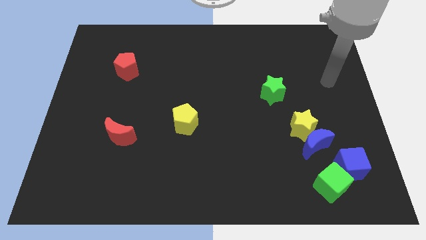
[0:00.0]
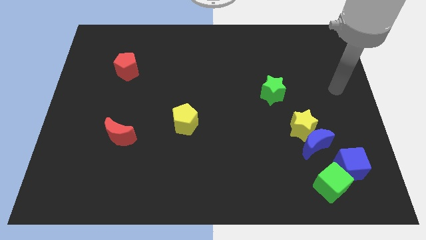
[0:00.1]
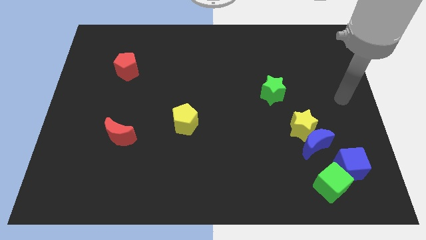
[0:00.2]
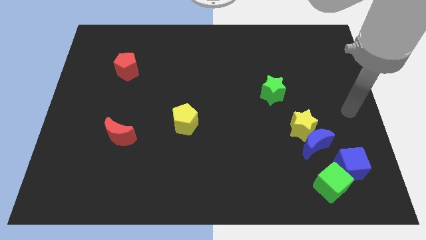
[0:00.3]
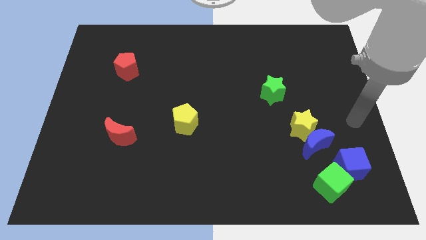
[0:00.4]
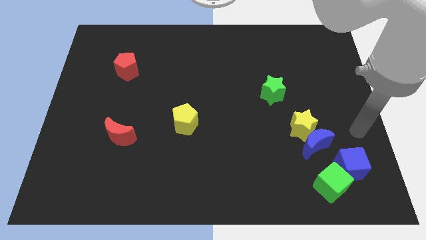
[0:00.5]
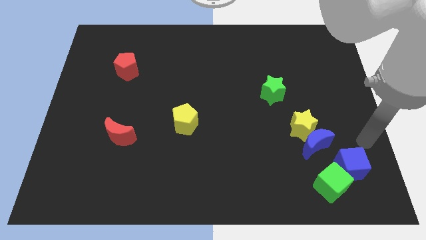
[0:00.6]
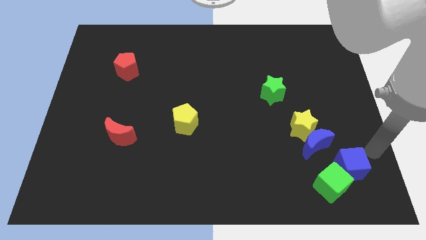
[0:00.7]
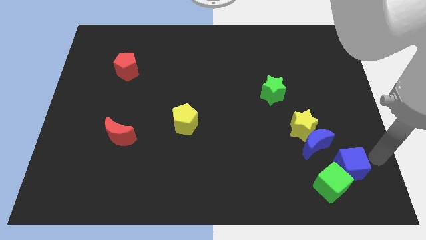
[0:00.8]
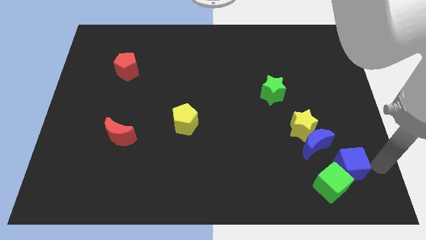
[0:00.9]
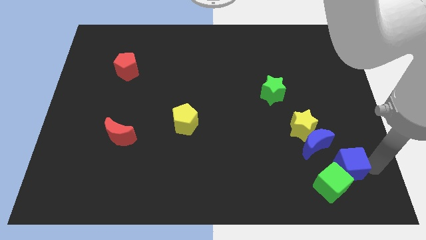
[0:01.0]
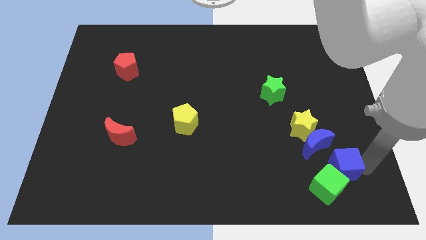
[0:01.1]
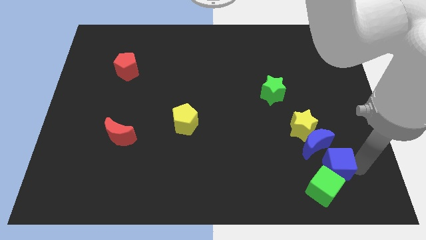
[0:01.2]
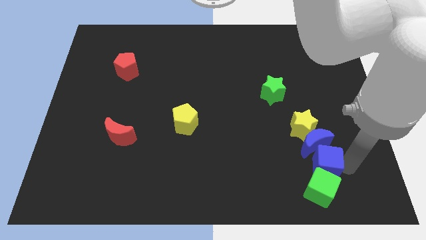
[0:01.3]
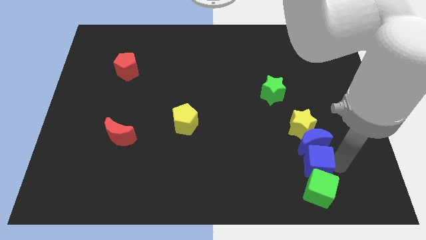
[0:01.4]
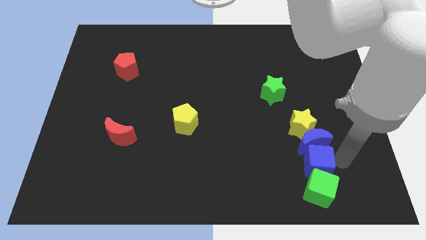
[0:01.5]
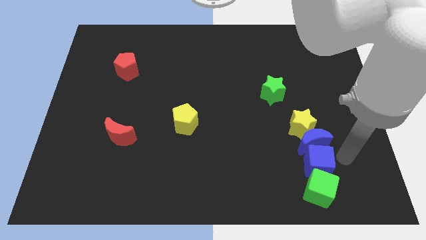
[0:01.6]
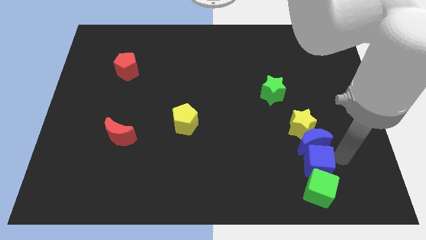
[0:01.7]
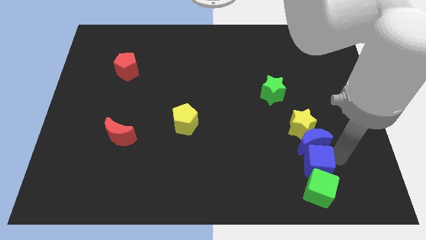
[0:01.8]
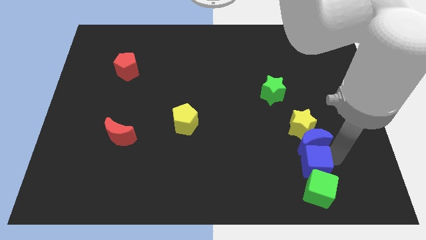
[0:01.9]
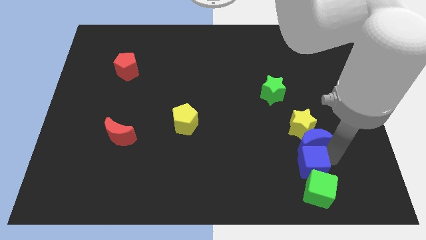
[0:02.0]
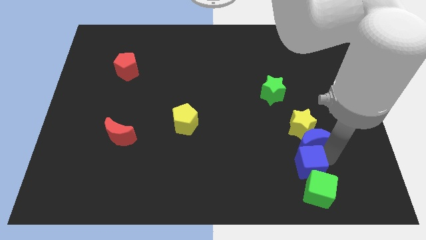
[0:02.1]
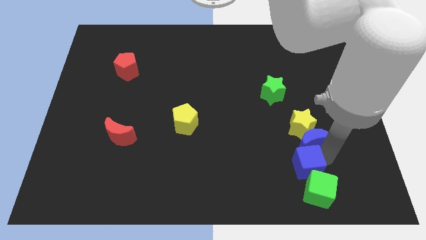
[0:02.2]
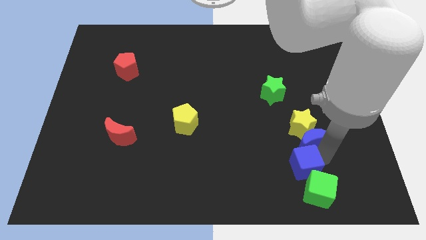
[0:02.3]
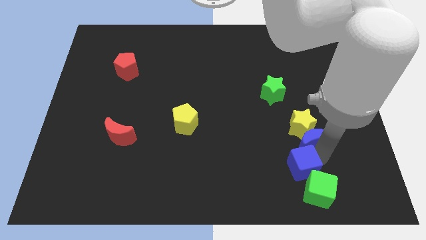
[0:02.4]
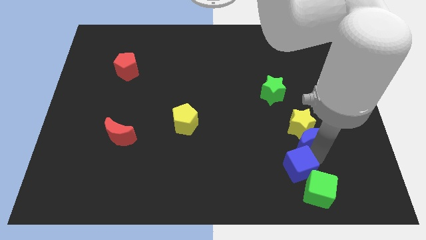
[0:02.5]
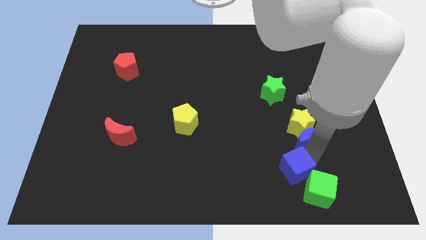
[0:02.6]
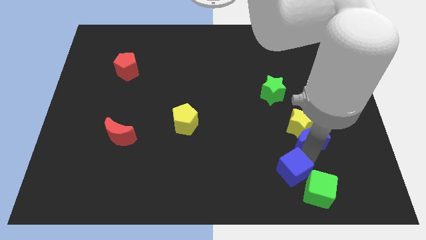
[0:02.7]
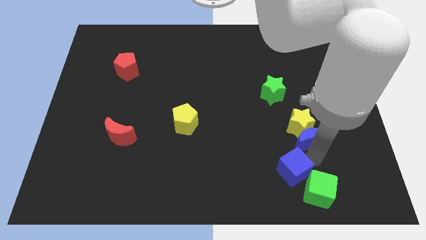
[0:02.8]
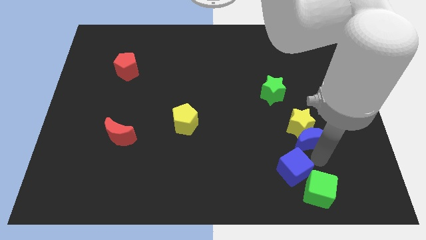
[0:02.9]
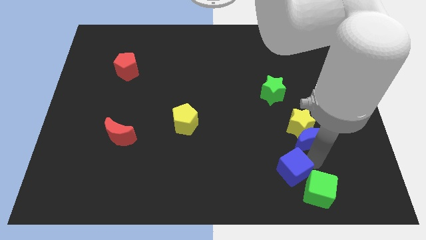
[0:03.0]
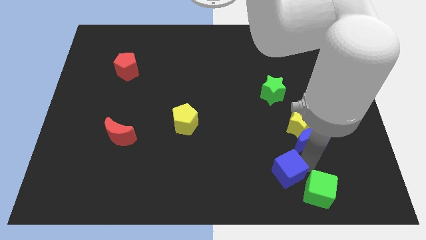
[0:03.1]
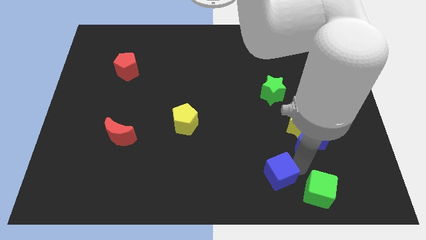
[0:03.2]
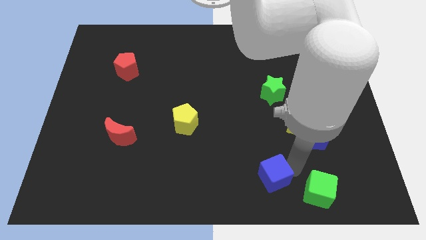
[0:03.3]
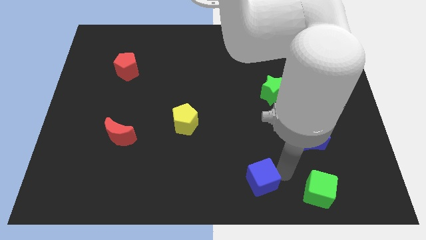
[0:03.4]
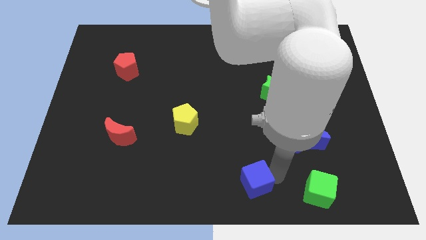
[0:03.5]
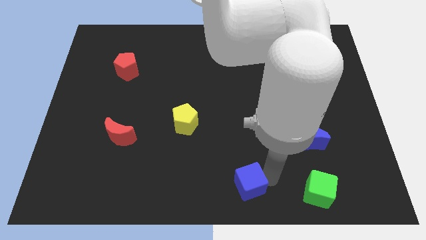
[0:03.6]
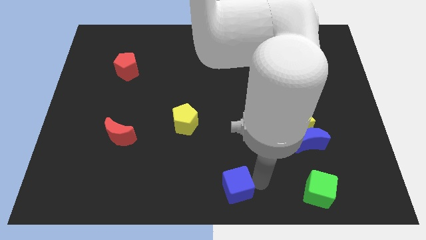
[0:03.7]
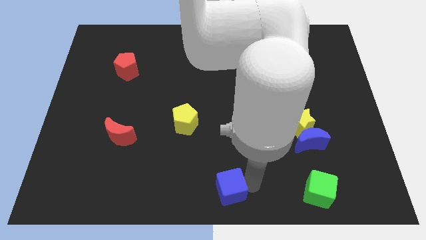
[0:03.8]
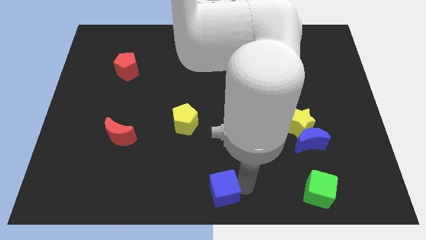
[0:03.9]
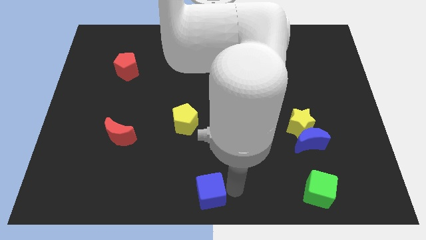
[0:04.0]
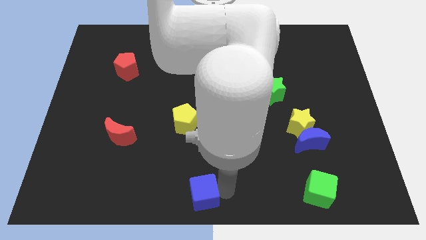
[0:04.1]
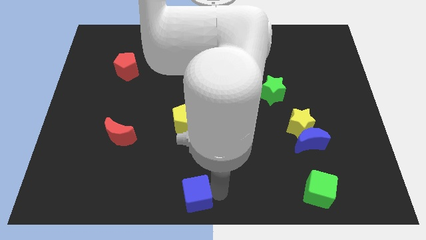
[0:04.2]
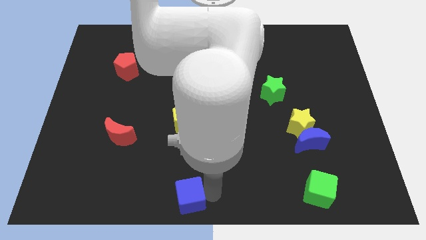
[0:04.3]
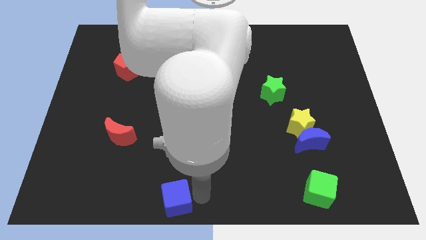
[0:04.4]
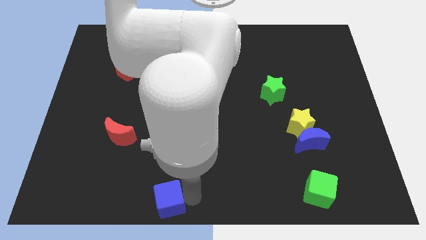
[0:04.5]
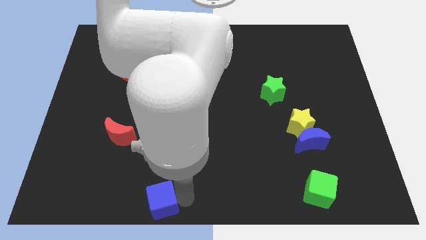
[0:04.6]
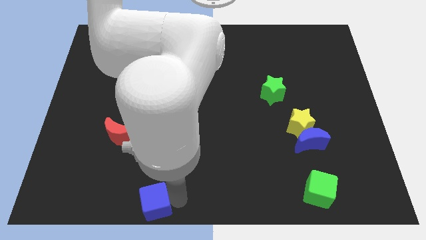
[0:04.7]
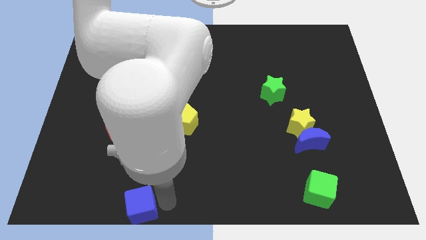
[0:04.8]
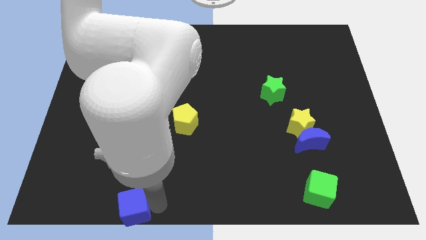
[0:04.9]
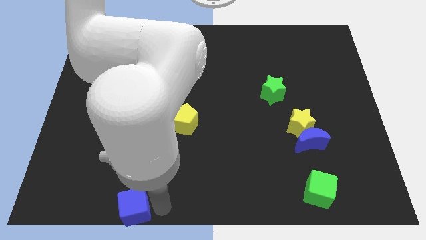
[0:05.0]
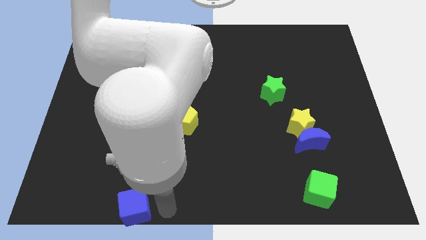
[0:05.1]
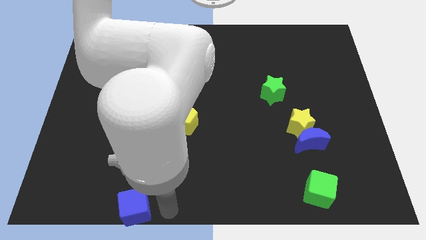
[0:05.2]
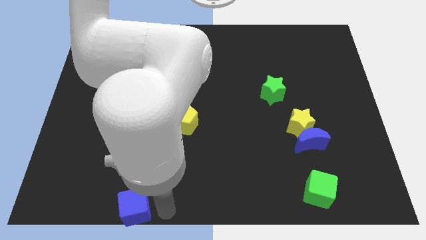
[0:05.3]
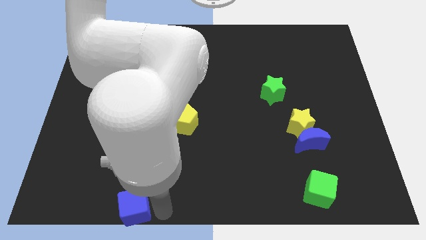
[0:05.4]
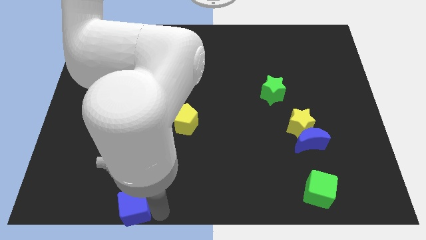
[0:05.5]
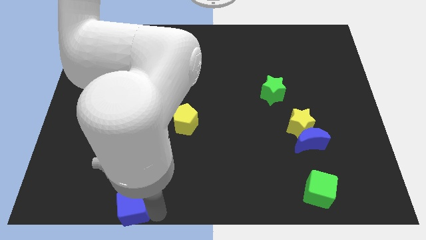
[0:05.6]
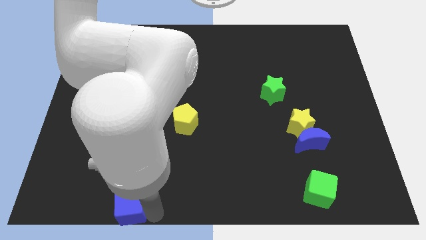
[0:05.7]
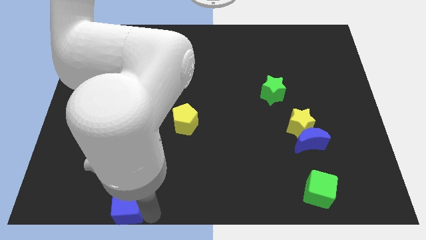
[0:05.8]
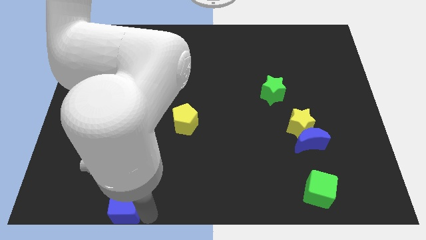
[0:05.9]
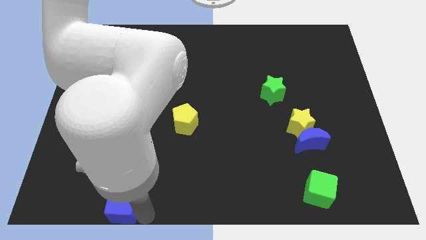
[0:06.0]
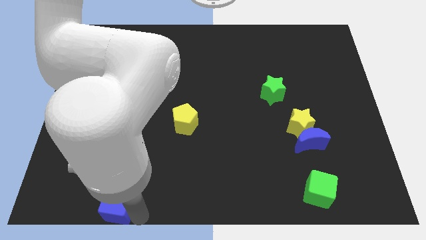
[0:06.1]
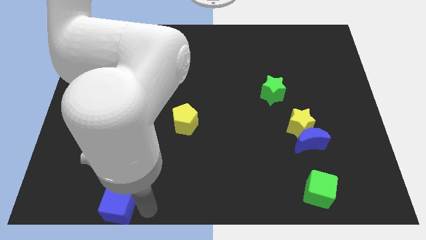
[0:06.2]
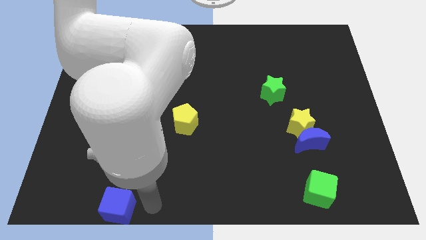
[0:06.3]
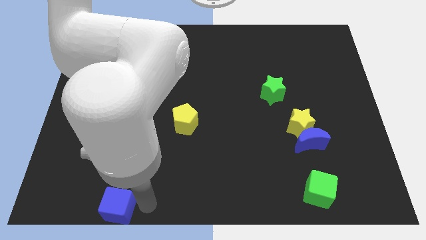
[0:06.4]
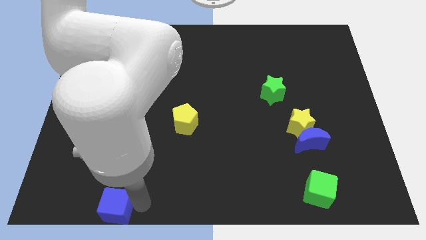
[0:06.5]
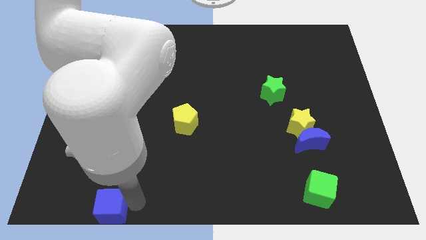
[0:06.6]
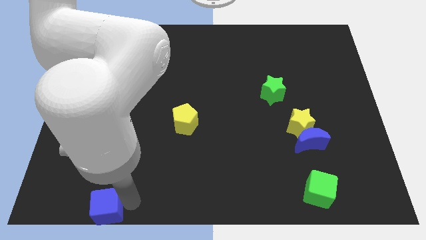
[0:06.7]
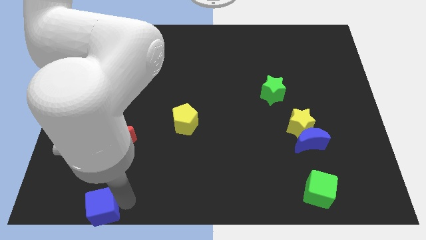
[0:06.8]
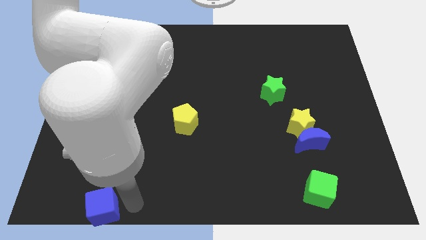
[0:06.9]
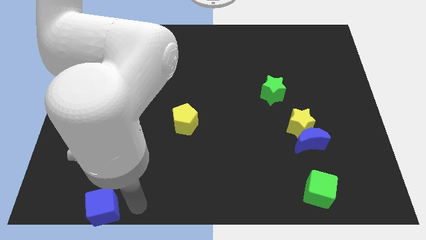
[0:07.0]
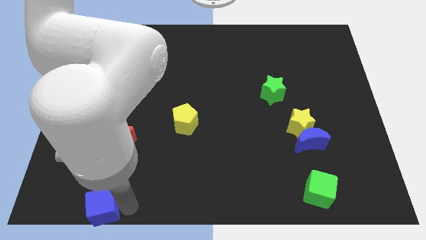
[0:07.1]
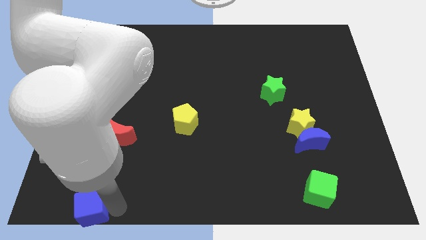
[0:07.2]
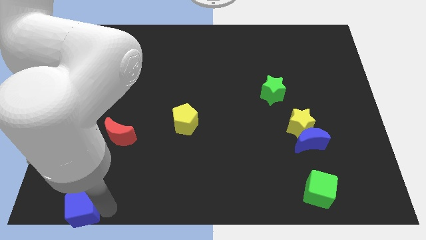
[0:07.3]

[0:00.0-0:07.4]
move the blue cube to the bottom left of the board
